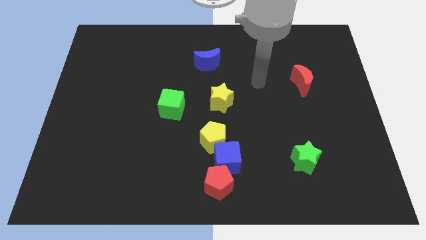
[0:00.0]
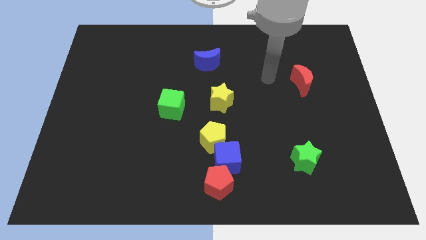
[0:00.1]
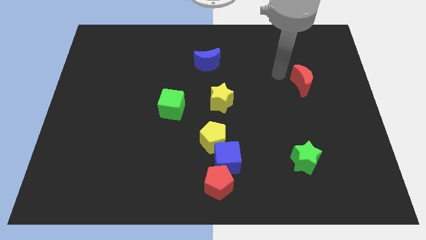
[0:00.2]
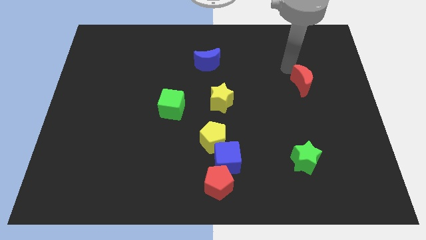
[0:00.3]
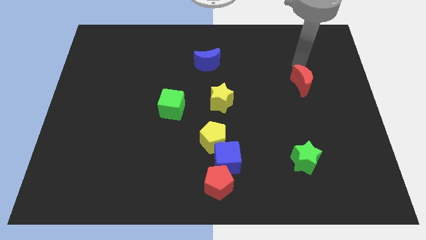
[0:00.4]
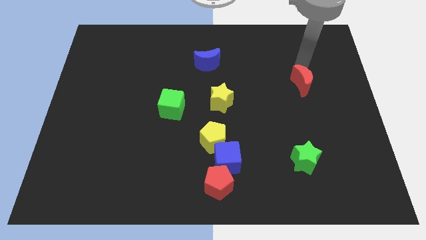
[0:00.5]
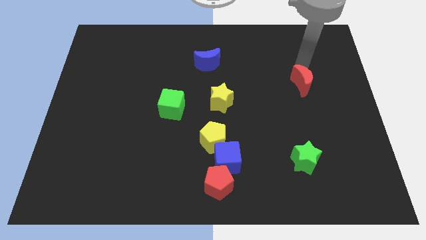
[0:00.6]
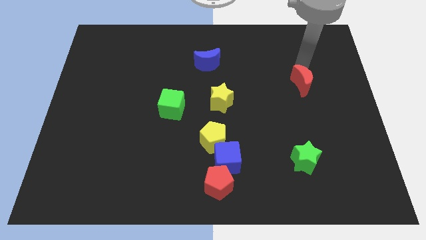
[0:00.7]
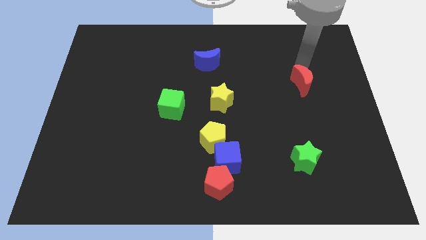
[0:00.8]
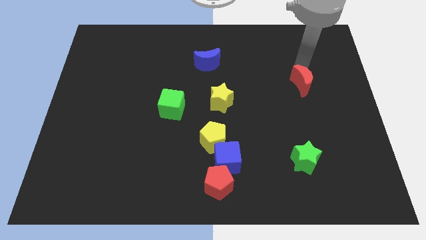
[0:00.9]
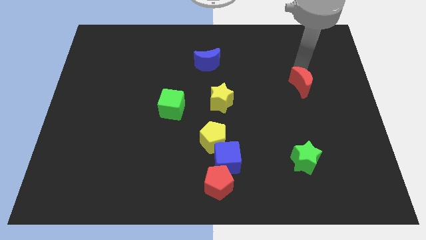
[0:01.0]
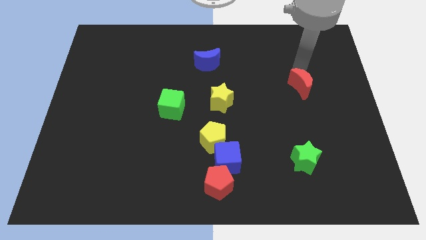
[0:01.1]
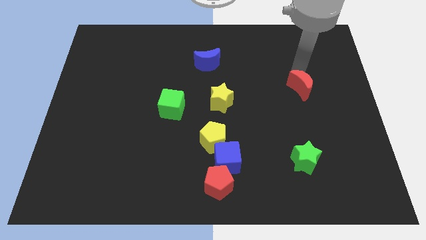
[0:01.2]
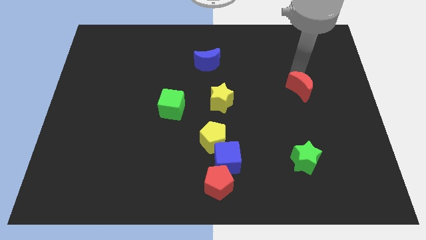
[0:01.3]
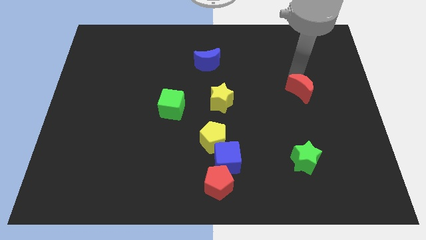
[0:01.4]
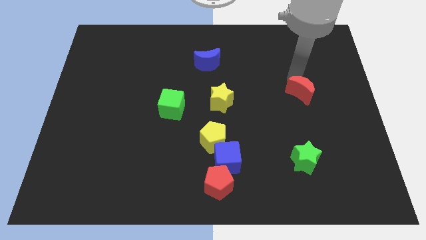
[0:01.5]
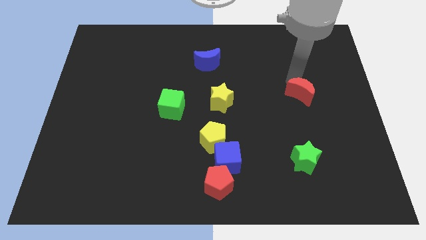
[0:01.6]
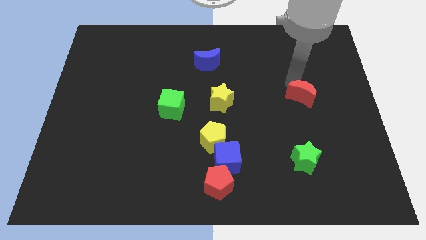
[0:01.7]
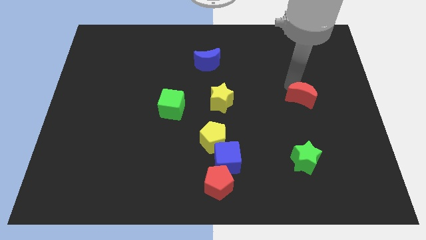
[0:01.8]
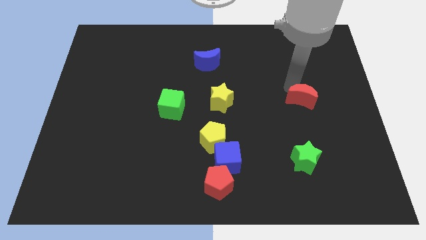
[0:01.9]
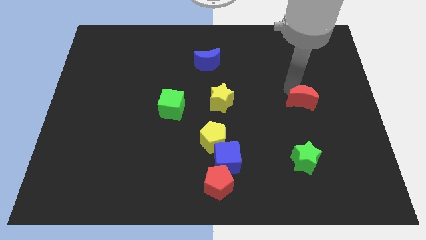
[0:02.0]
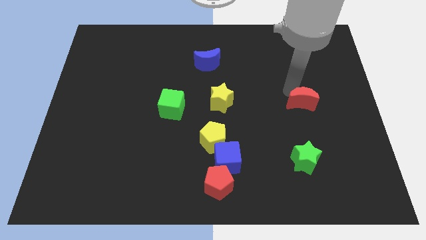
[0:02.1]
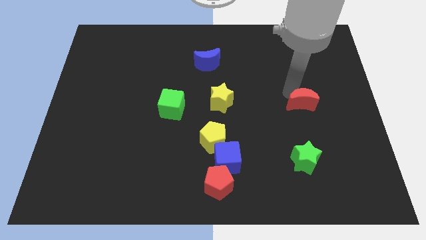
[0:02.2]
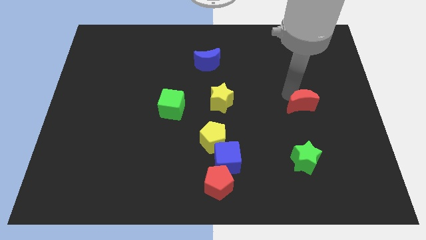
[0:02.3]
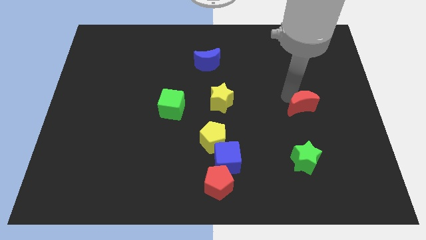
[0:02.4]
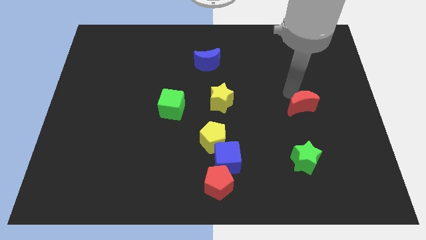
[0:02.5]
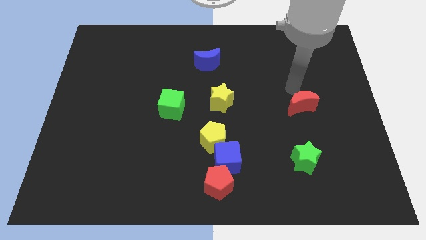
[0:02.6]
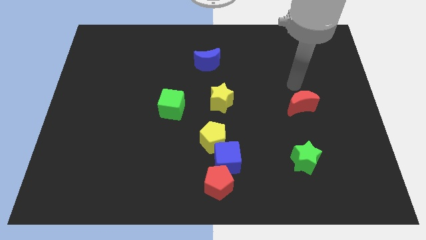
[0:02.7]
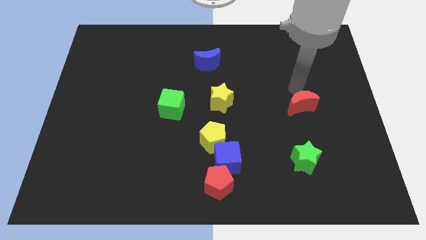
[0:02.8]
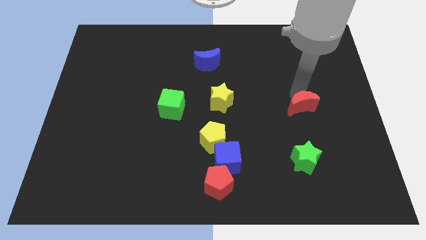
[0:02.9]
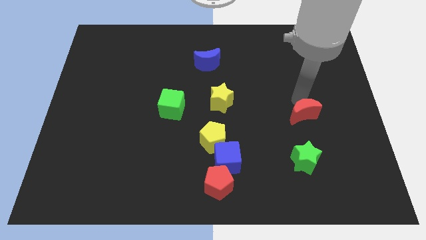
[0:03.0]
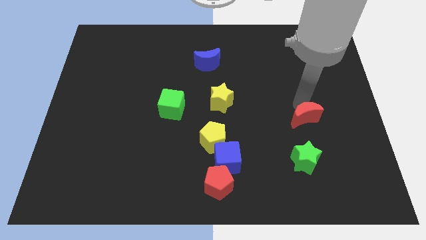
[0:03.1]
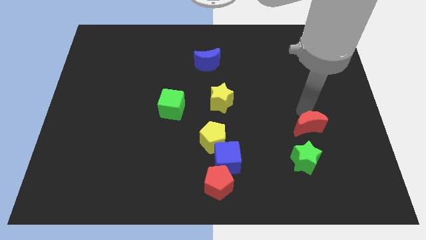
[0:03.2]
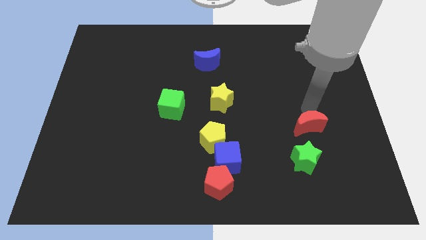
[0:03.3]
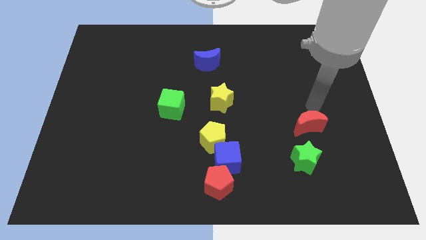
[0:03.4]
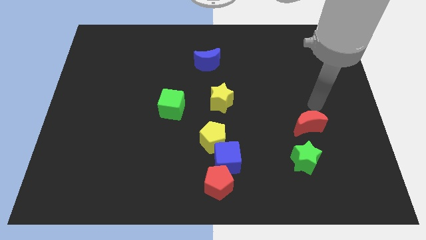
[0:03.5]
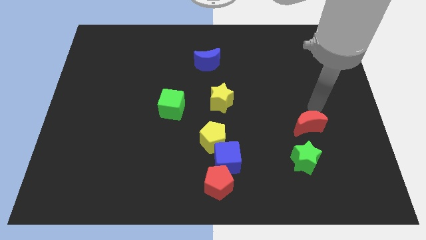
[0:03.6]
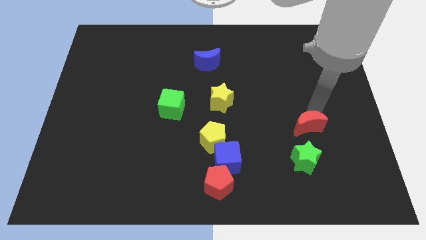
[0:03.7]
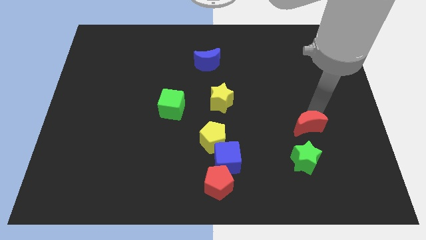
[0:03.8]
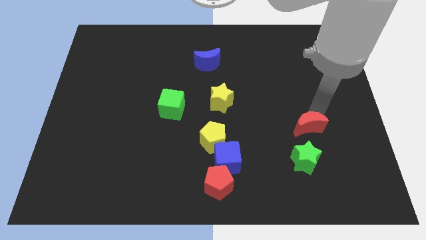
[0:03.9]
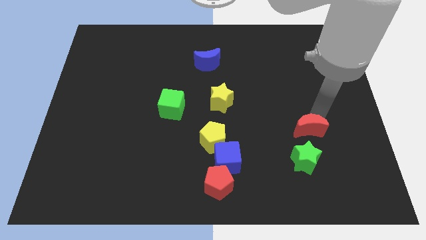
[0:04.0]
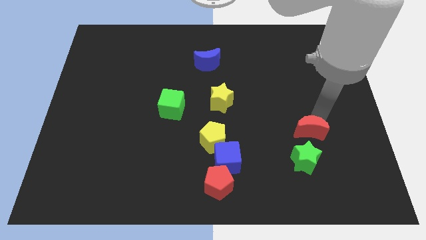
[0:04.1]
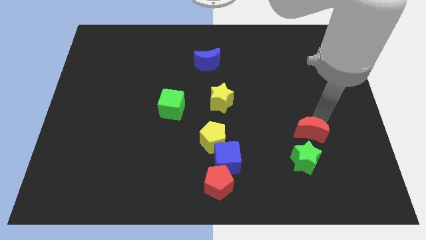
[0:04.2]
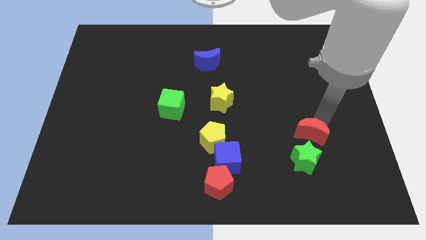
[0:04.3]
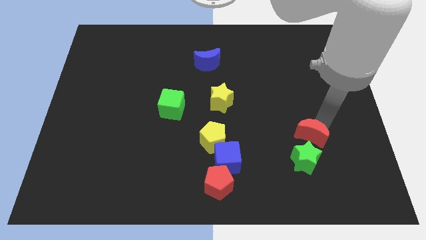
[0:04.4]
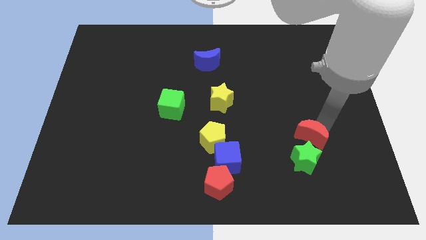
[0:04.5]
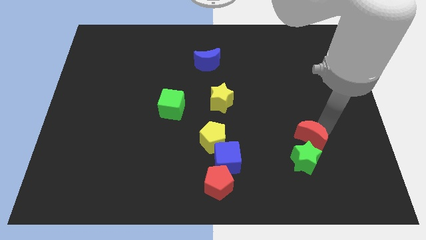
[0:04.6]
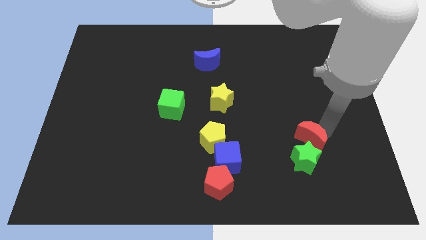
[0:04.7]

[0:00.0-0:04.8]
put the red moon next to the green star

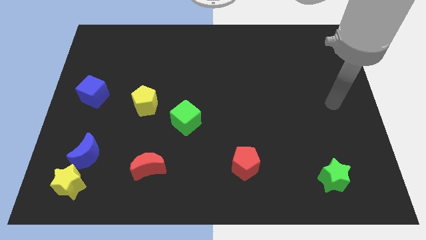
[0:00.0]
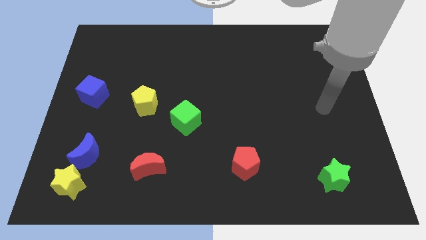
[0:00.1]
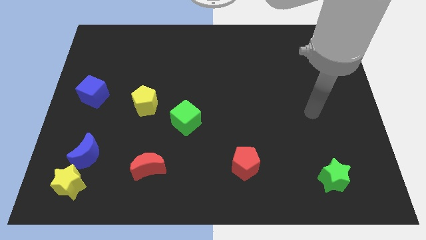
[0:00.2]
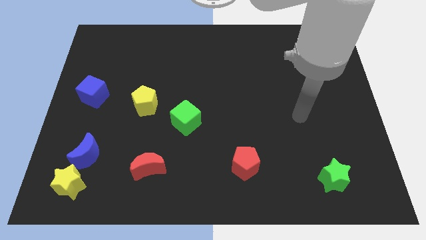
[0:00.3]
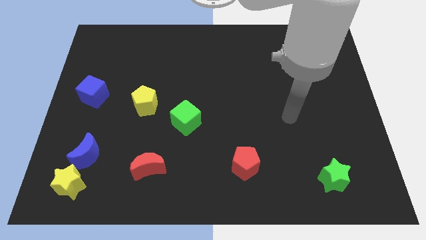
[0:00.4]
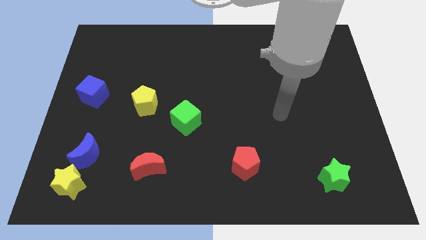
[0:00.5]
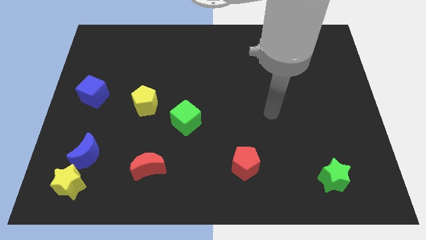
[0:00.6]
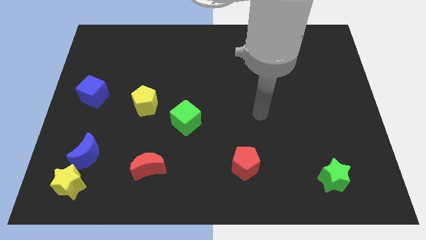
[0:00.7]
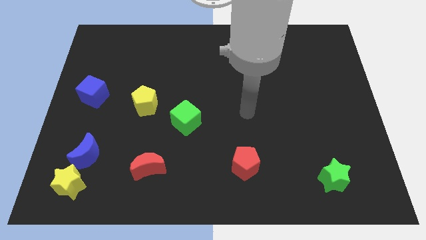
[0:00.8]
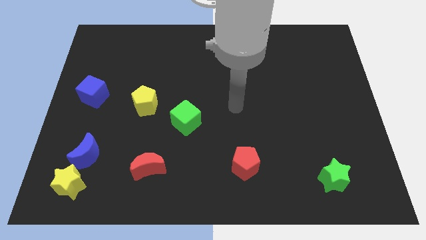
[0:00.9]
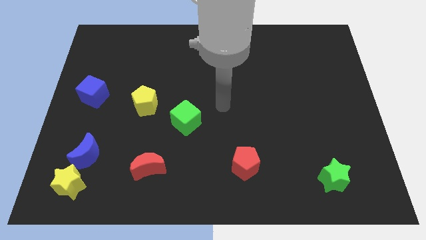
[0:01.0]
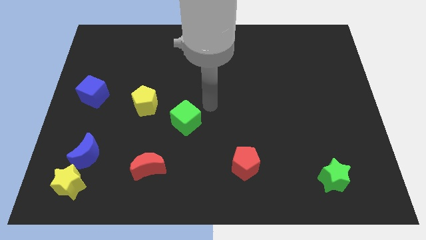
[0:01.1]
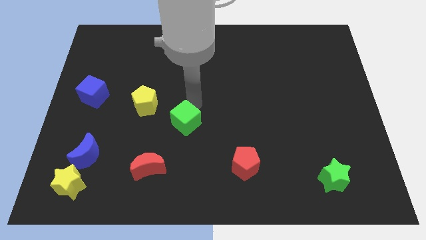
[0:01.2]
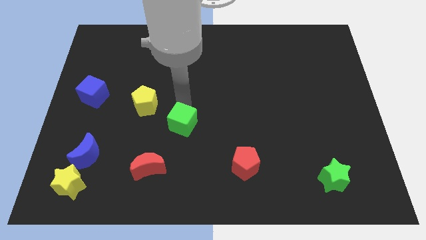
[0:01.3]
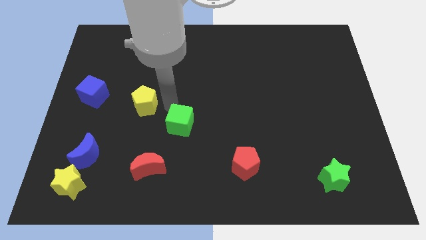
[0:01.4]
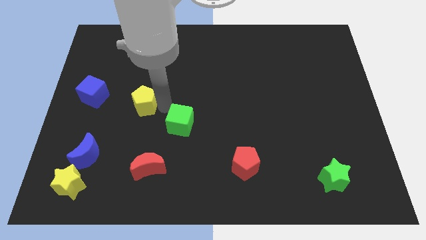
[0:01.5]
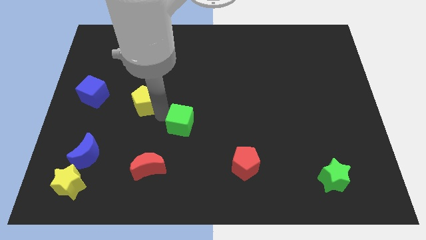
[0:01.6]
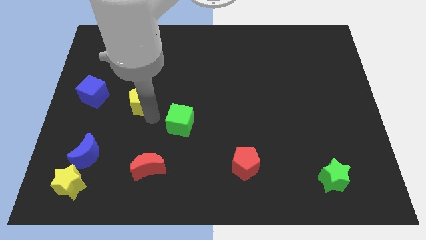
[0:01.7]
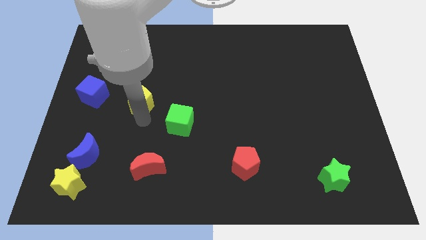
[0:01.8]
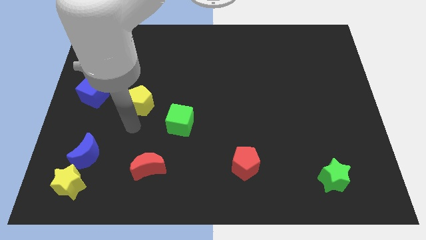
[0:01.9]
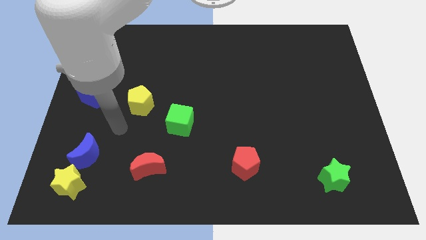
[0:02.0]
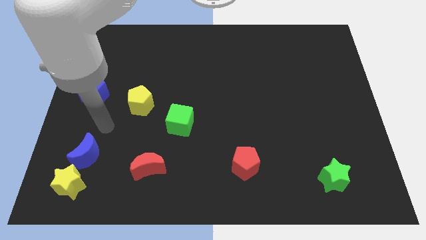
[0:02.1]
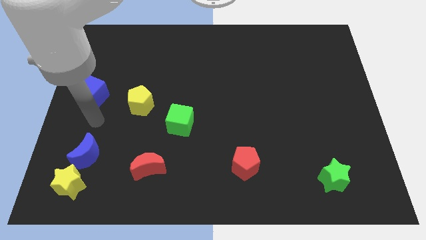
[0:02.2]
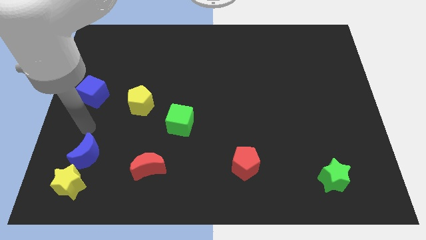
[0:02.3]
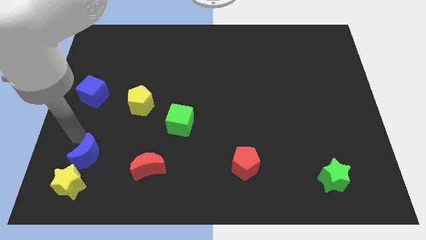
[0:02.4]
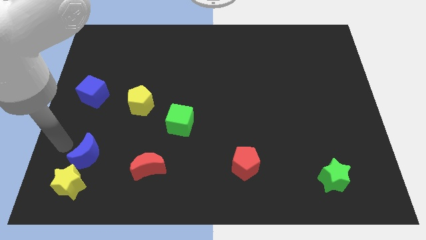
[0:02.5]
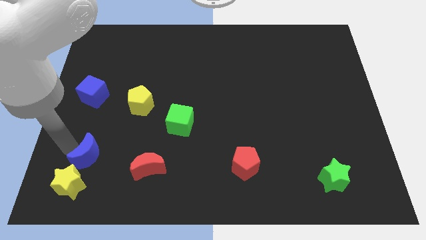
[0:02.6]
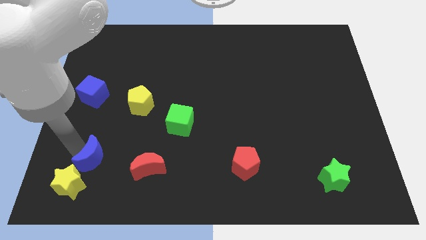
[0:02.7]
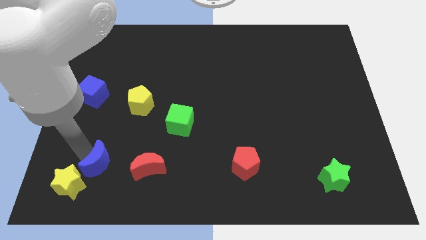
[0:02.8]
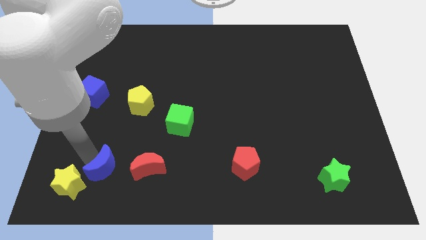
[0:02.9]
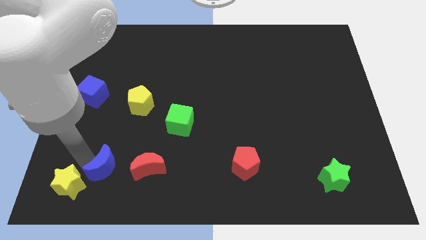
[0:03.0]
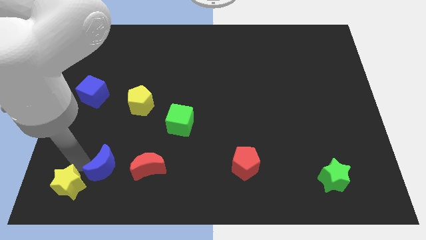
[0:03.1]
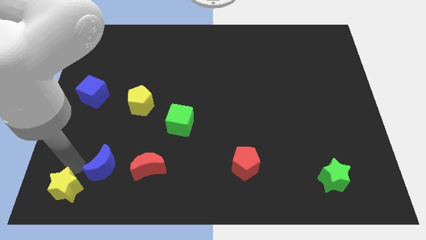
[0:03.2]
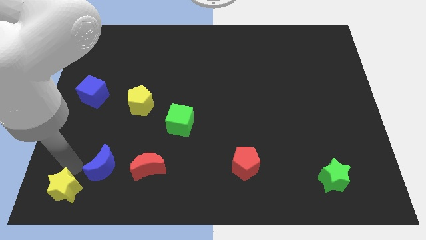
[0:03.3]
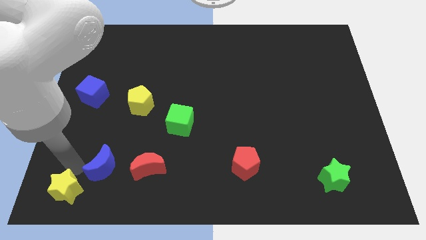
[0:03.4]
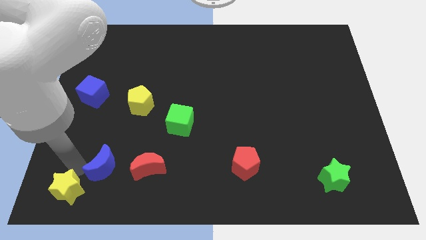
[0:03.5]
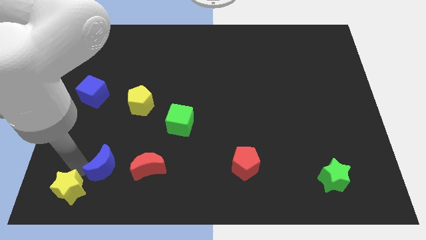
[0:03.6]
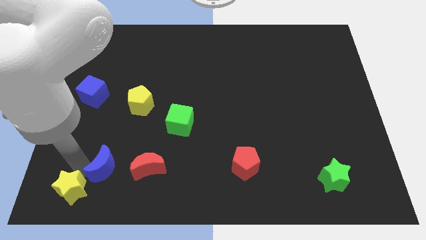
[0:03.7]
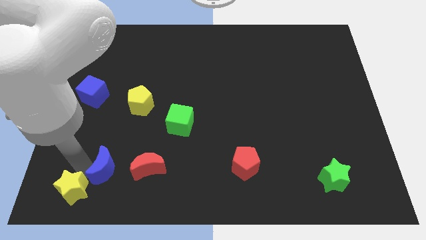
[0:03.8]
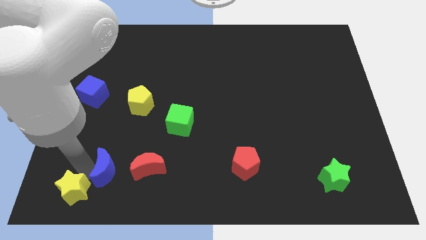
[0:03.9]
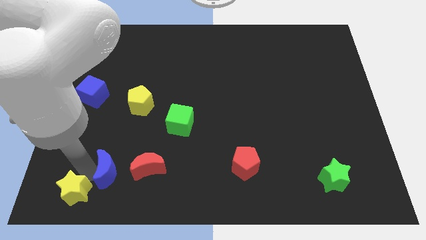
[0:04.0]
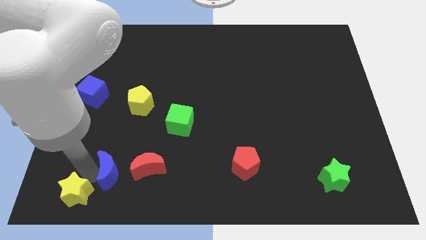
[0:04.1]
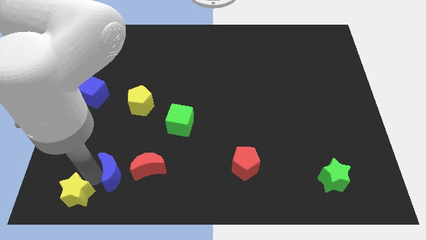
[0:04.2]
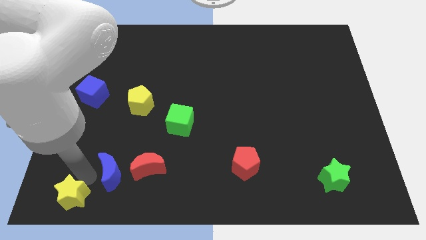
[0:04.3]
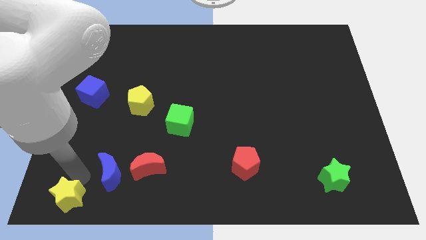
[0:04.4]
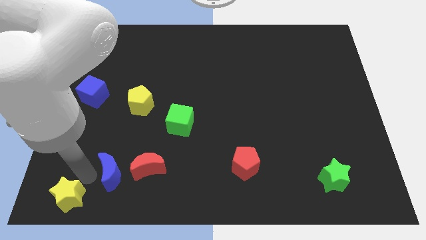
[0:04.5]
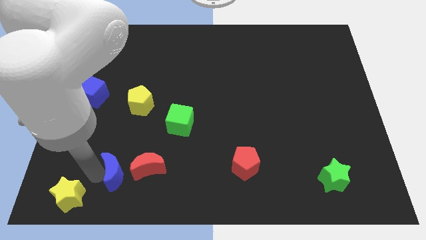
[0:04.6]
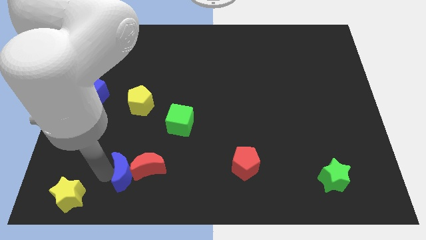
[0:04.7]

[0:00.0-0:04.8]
put the blue moon to the red moon
